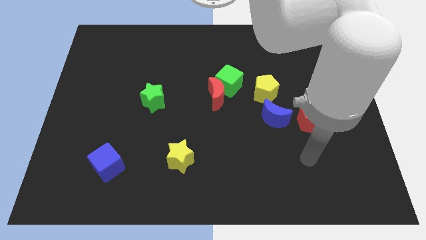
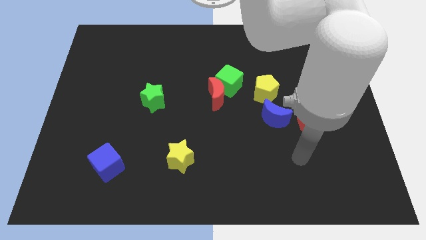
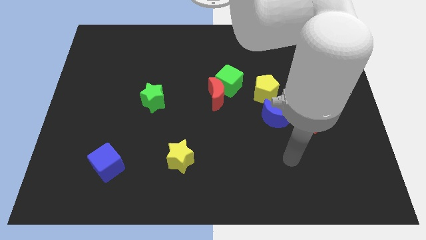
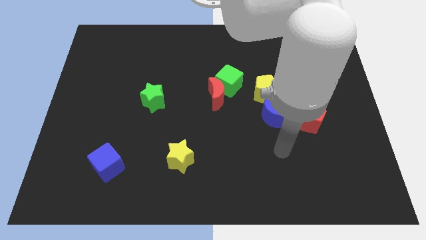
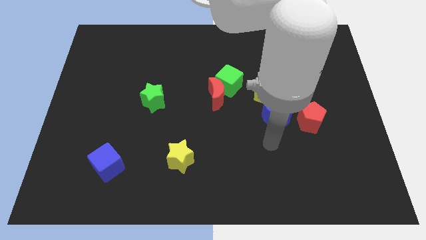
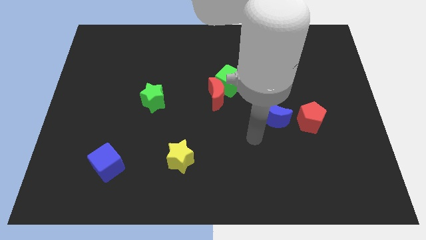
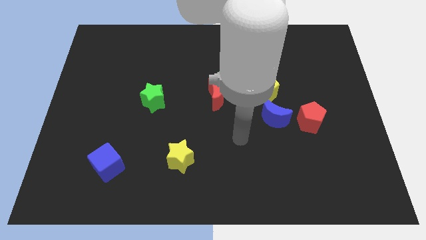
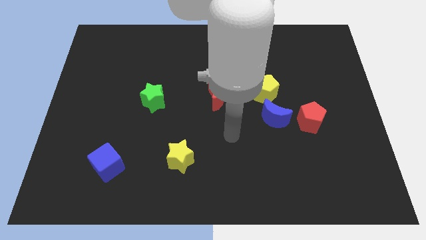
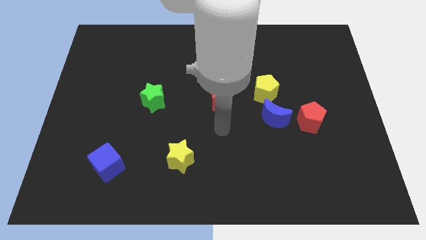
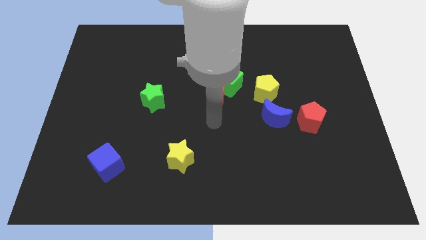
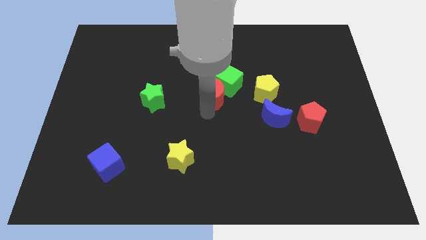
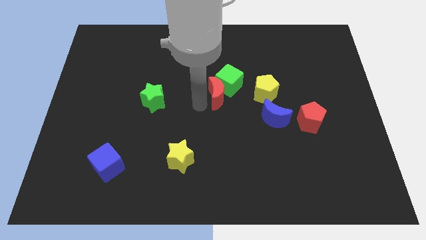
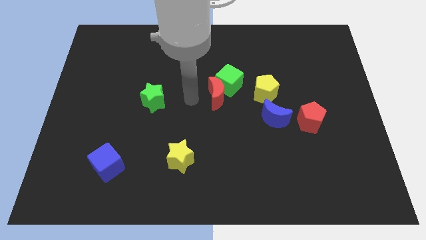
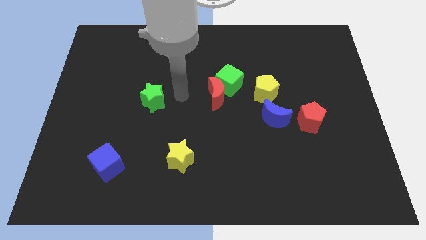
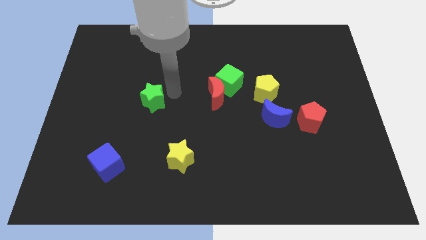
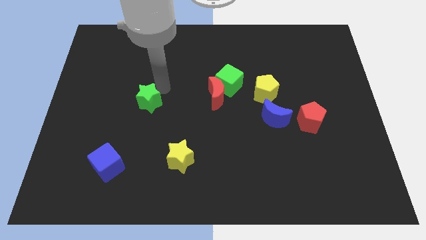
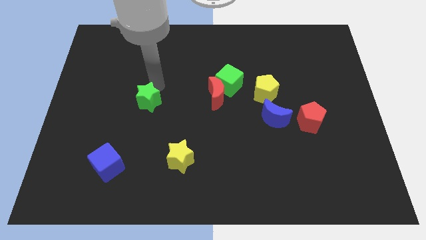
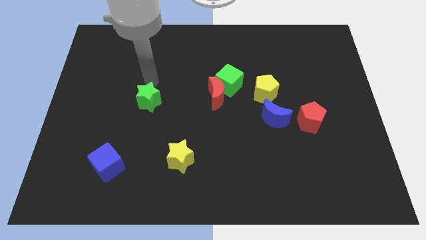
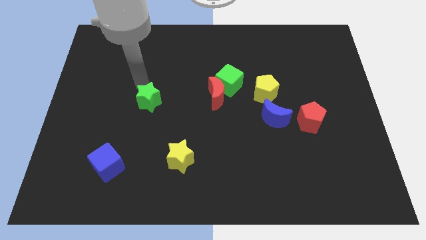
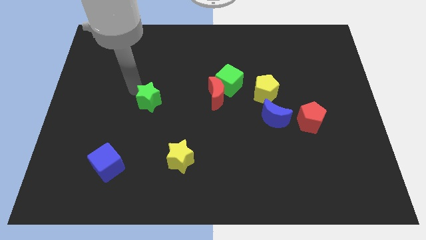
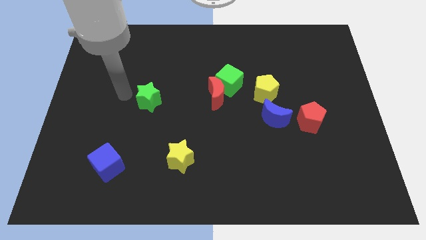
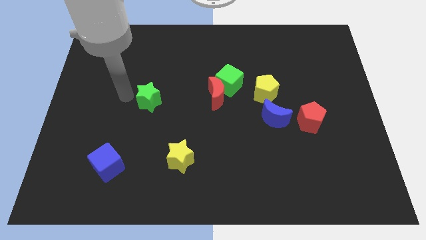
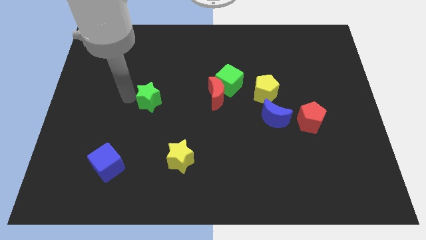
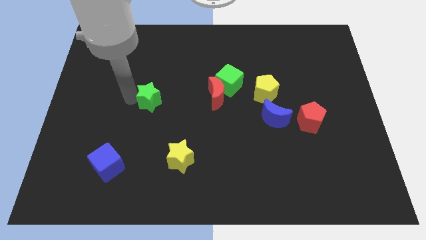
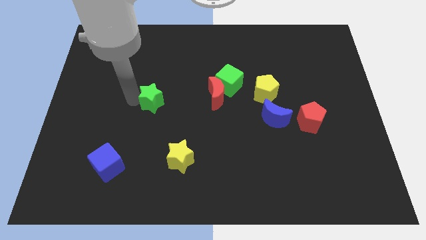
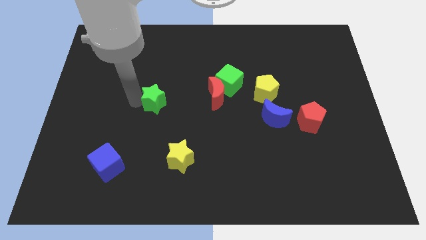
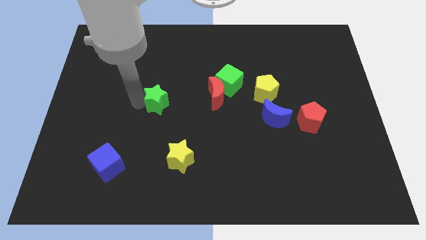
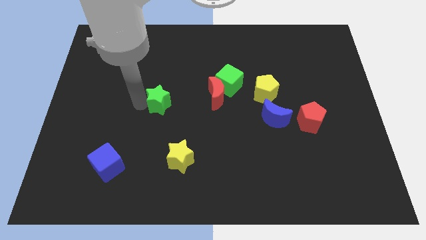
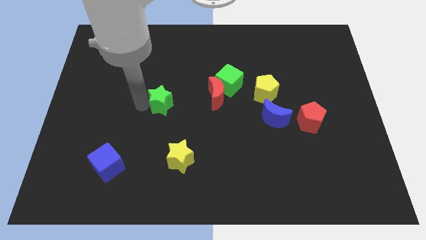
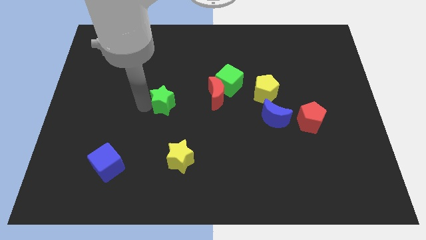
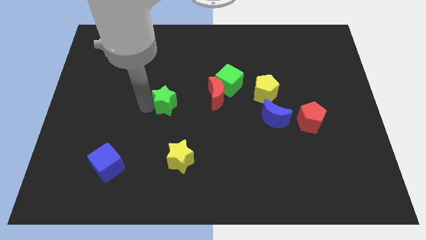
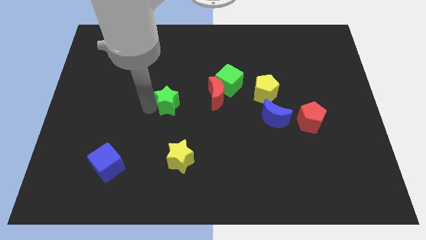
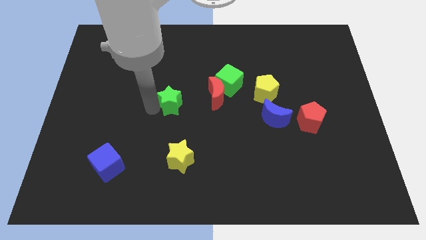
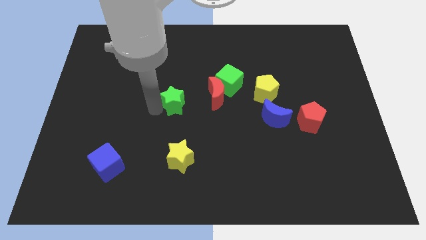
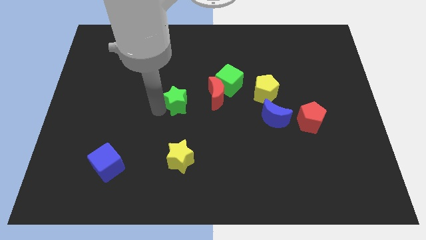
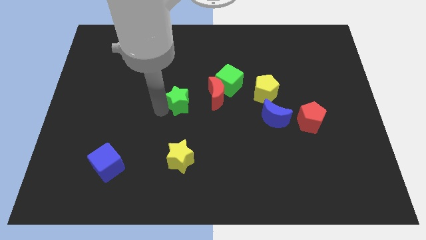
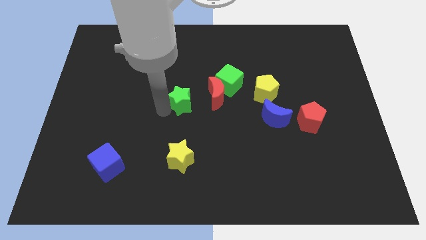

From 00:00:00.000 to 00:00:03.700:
slightly move the green star right

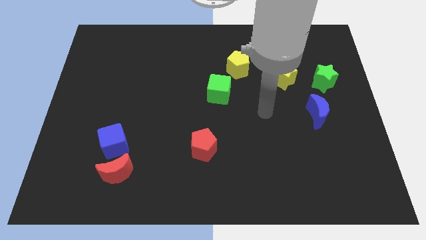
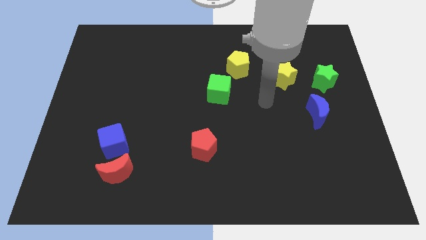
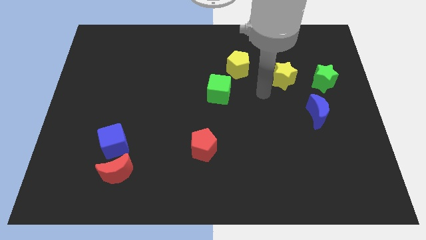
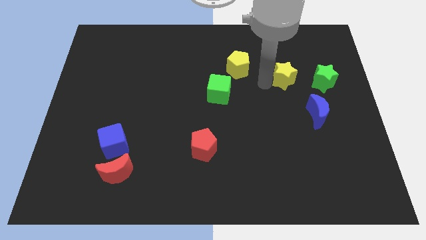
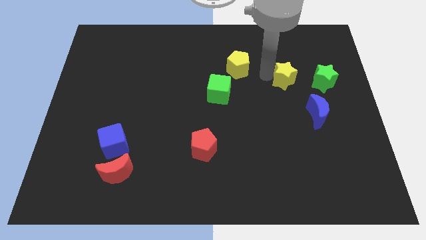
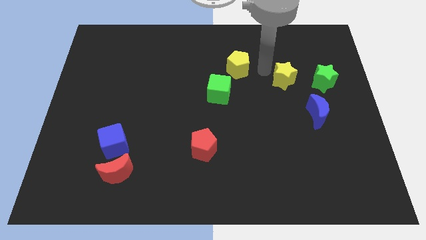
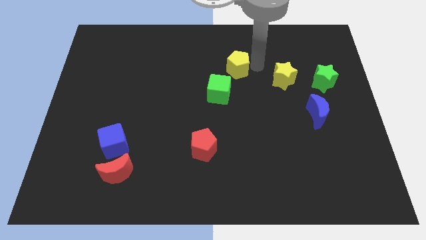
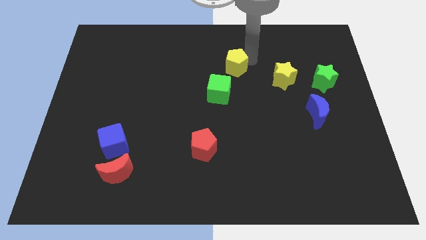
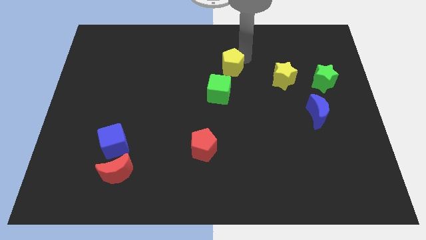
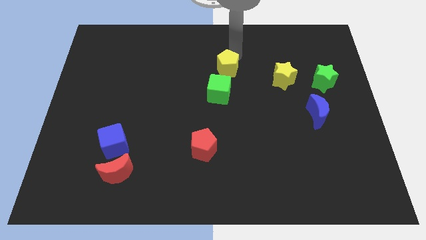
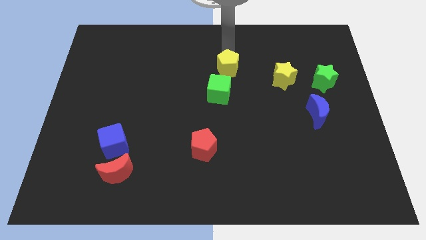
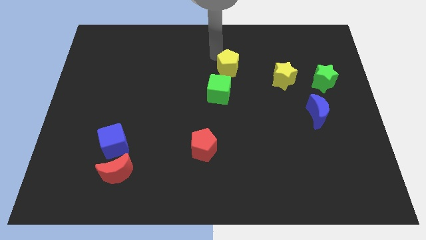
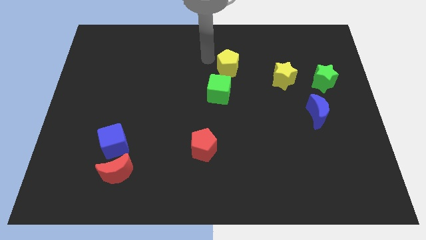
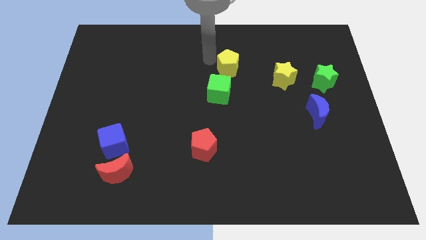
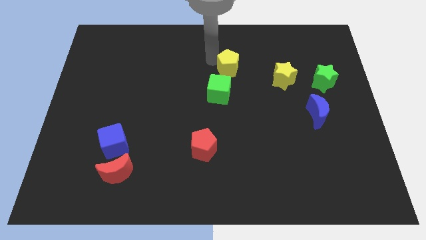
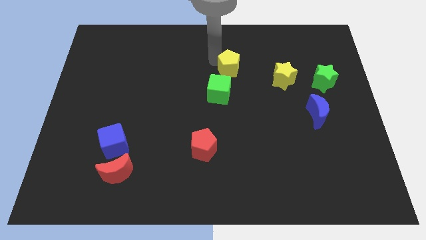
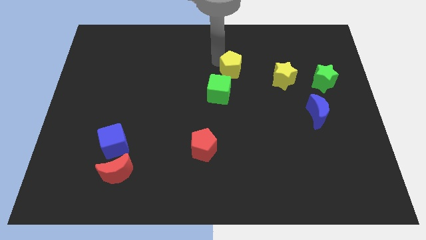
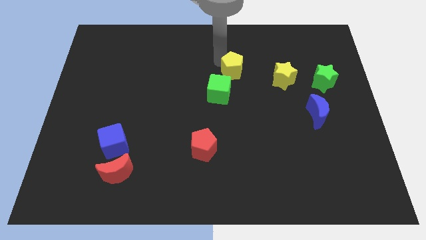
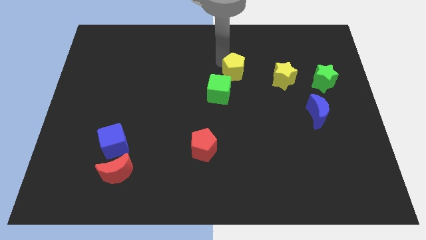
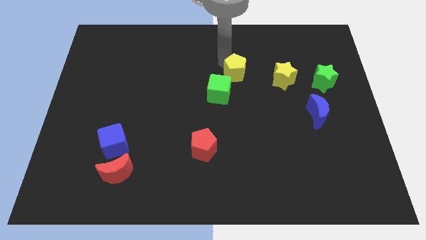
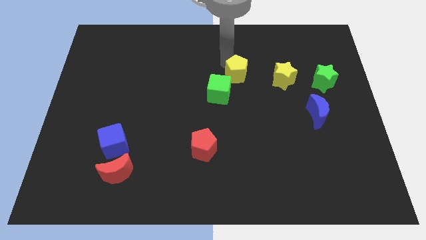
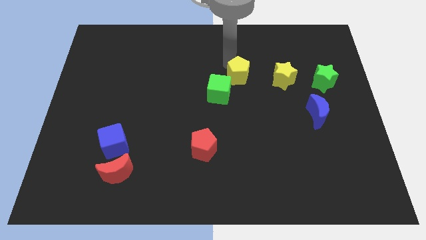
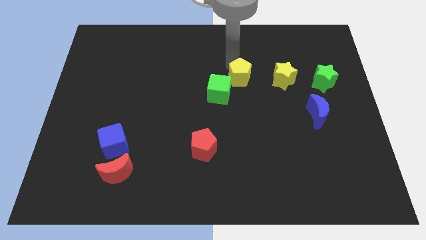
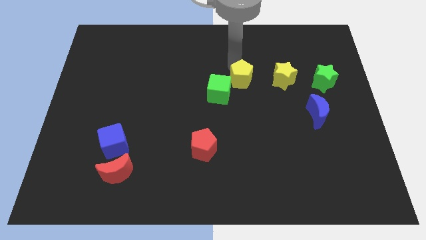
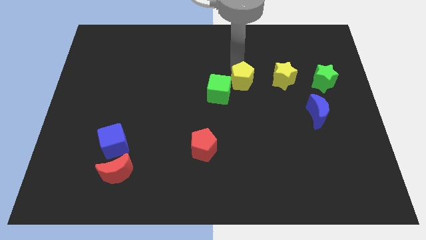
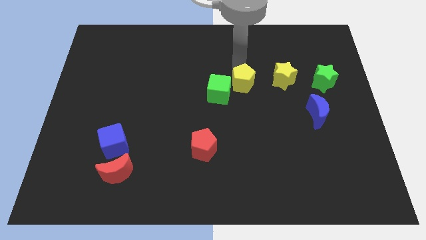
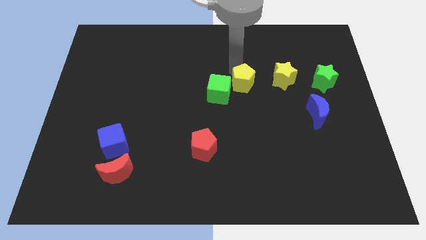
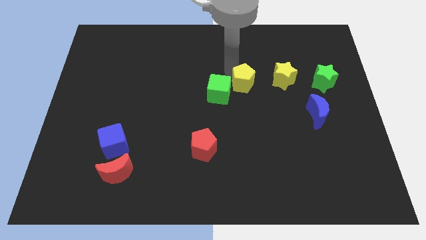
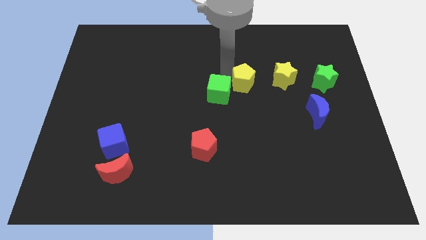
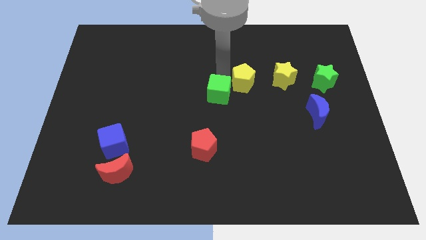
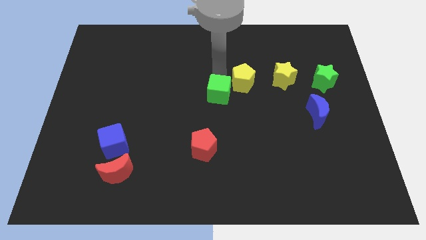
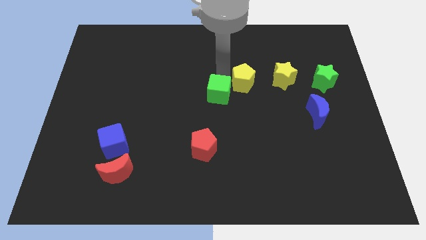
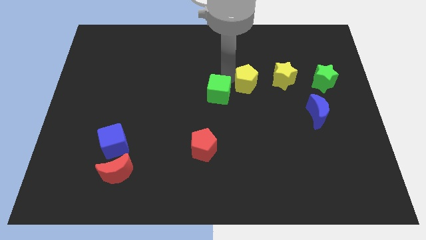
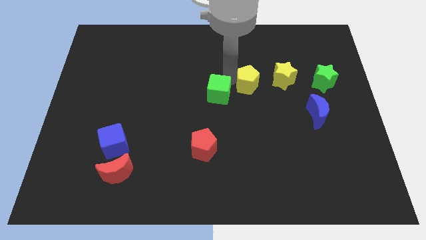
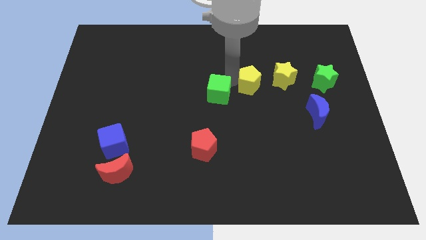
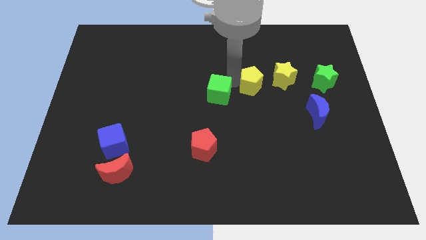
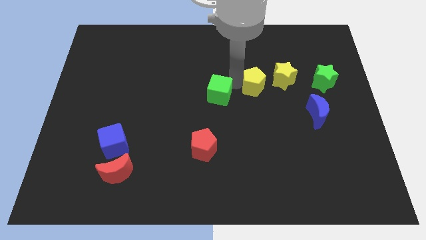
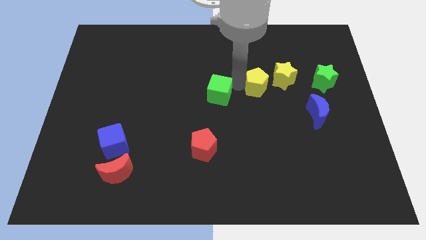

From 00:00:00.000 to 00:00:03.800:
slightly move the yellow pentagon down and to the right

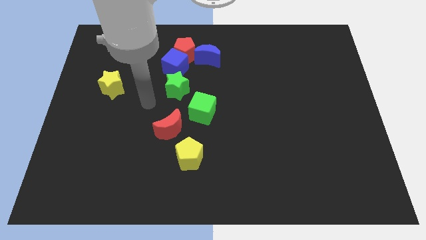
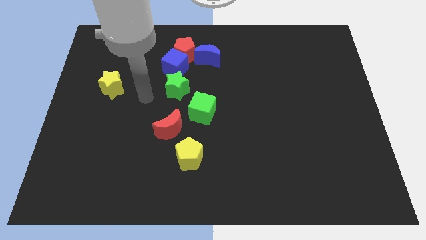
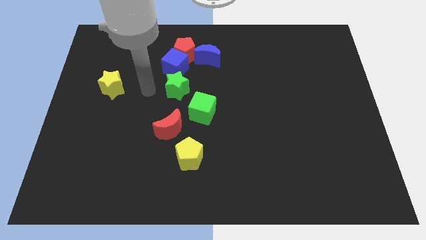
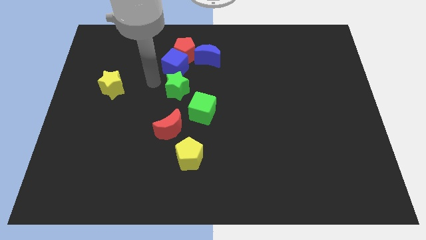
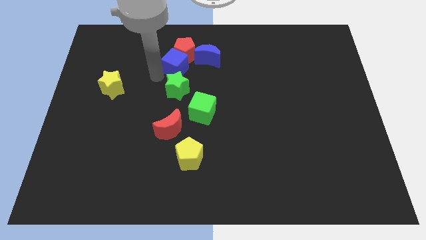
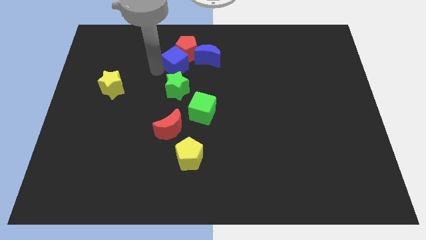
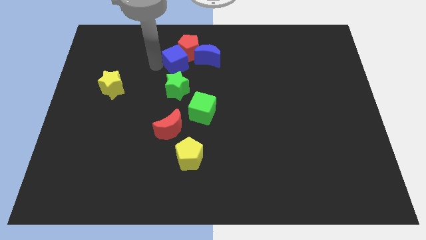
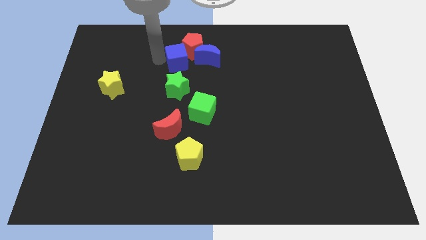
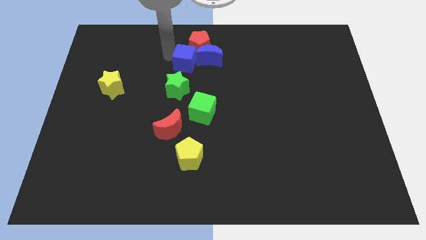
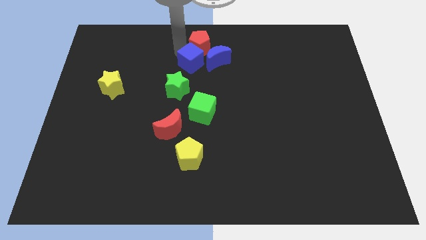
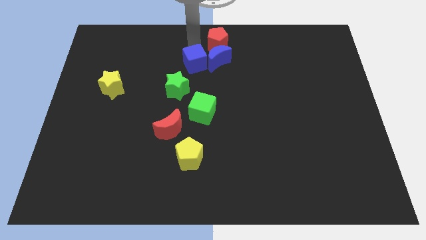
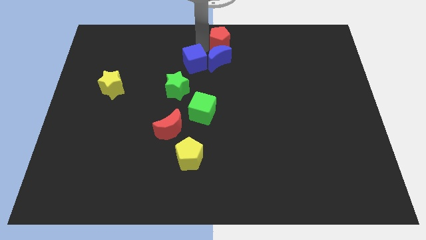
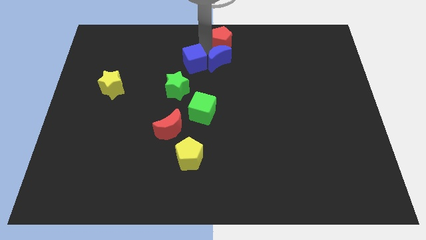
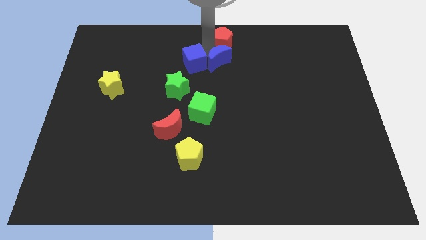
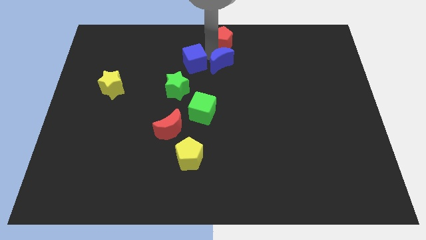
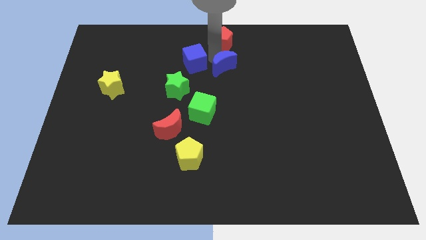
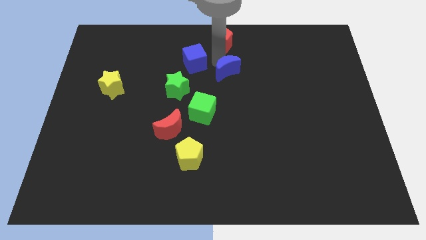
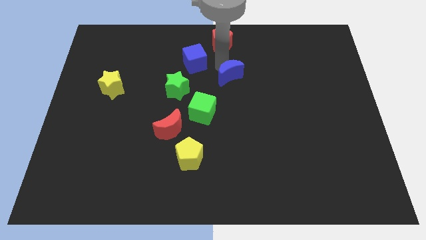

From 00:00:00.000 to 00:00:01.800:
push the blue moon downwards and to the right a little
